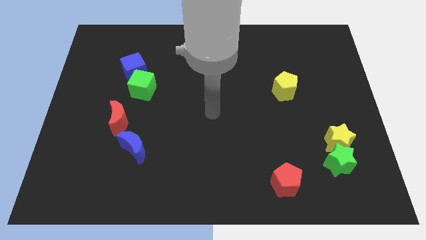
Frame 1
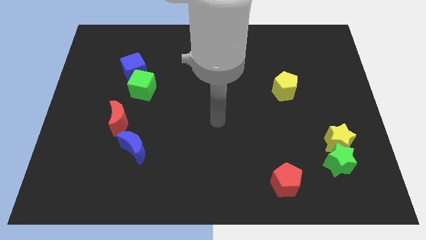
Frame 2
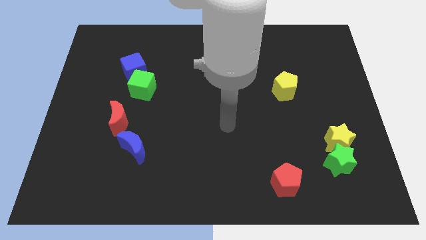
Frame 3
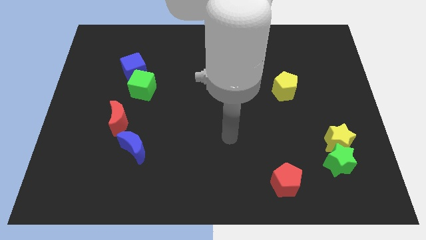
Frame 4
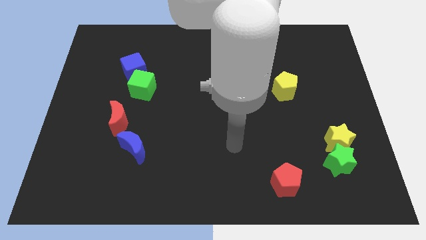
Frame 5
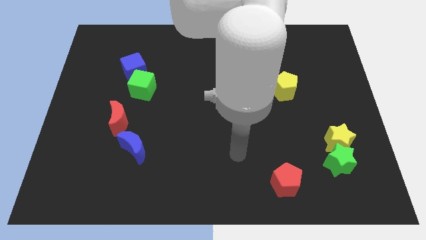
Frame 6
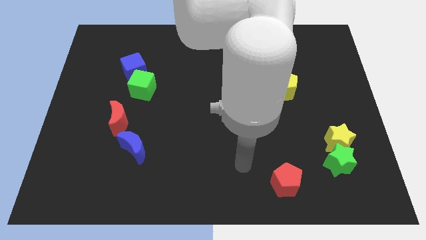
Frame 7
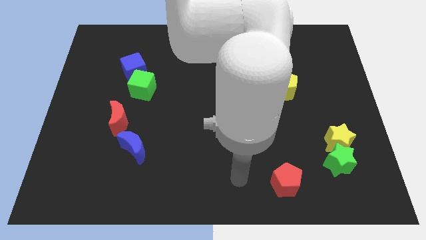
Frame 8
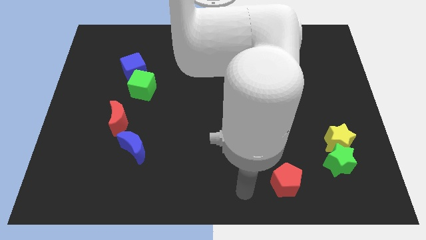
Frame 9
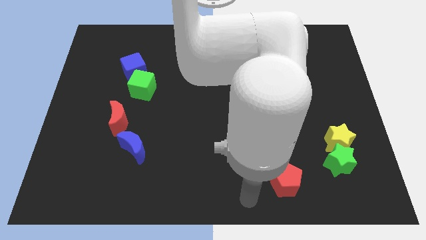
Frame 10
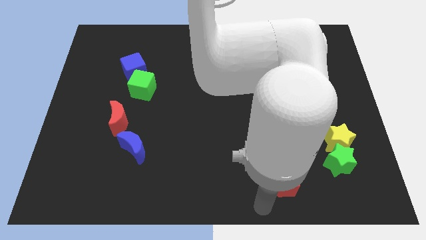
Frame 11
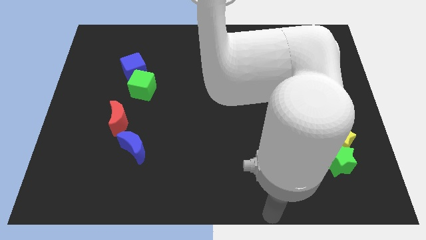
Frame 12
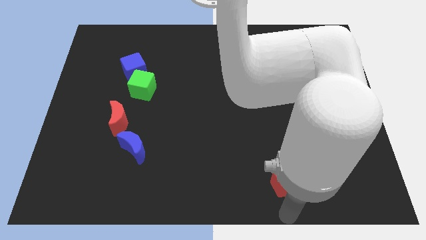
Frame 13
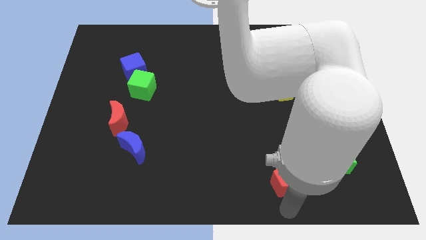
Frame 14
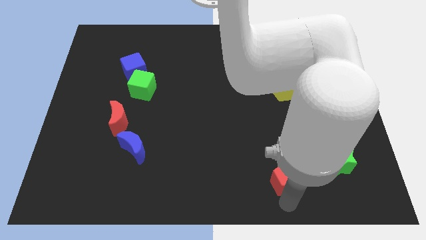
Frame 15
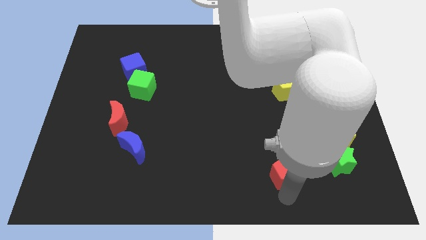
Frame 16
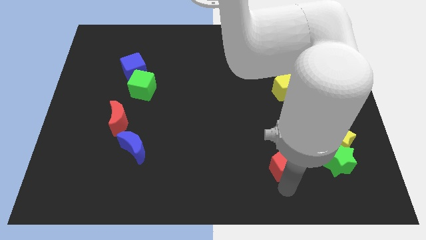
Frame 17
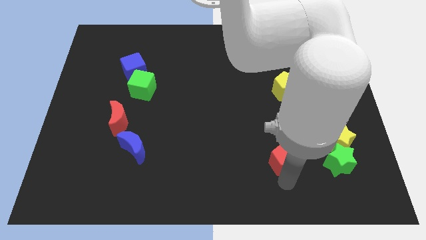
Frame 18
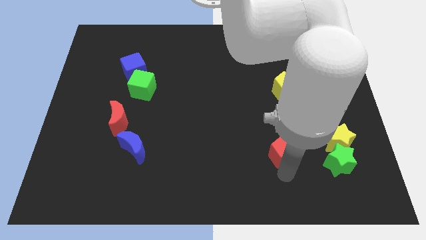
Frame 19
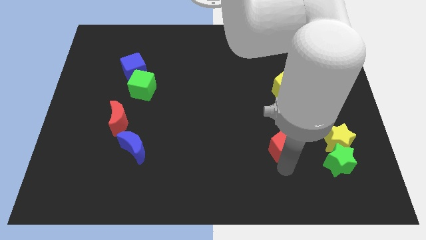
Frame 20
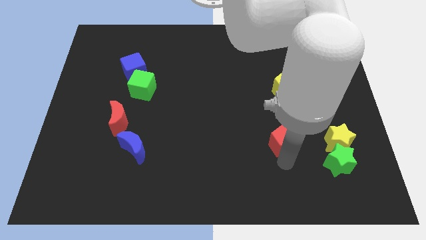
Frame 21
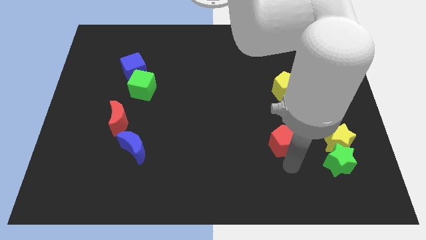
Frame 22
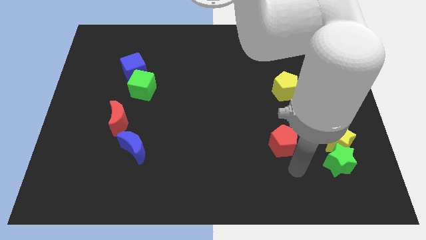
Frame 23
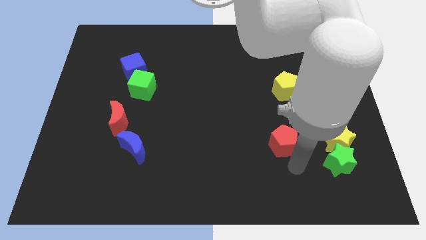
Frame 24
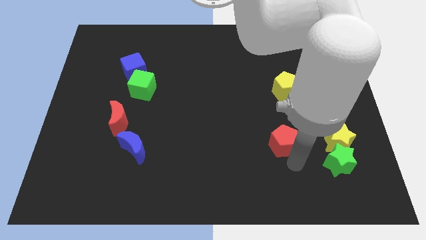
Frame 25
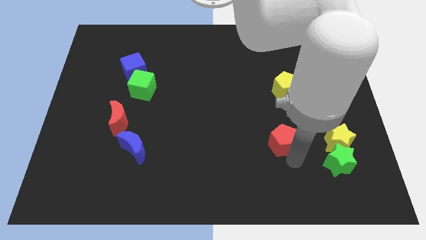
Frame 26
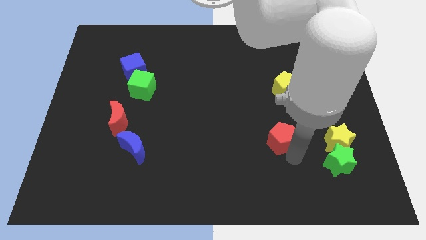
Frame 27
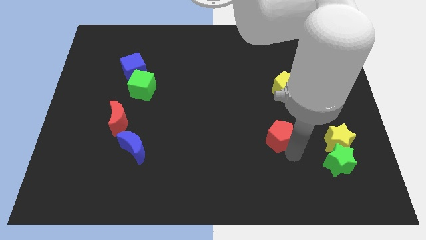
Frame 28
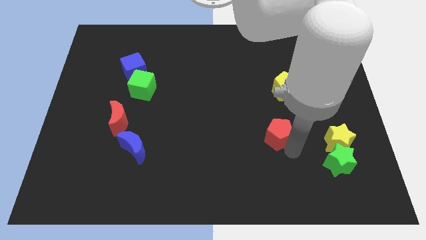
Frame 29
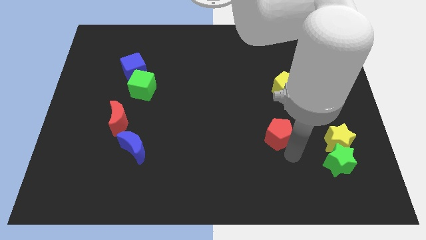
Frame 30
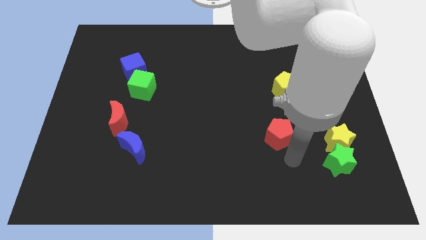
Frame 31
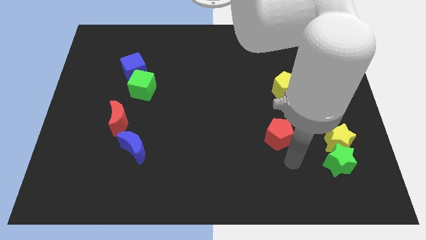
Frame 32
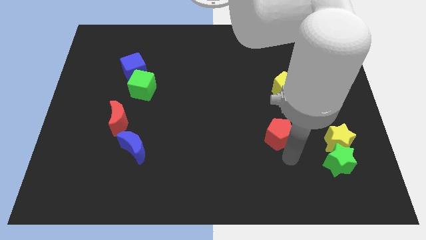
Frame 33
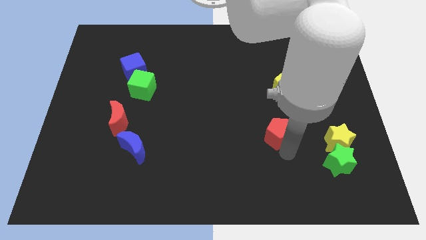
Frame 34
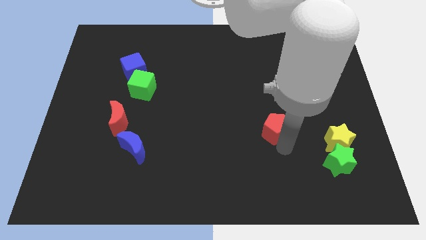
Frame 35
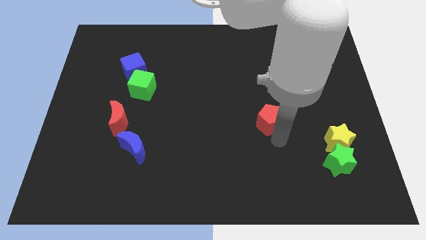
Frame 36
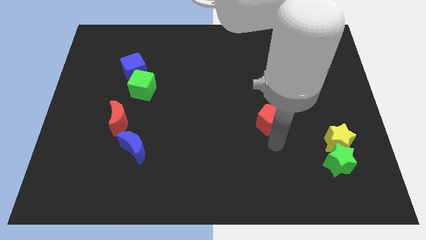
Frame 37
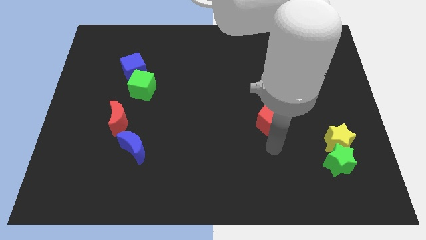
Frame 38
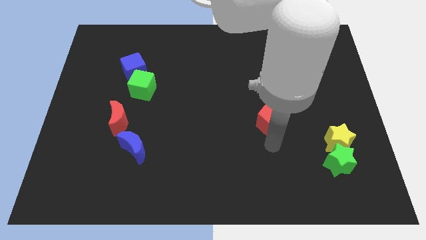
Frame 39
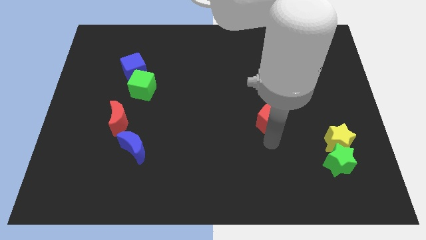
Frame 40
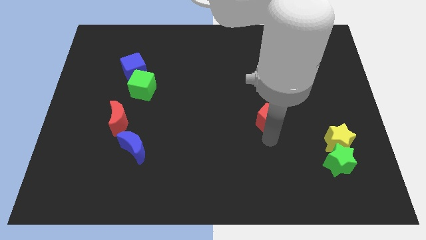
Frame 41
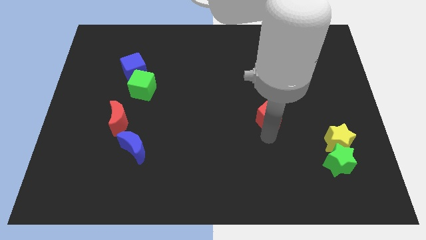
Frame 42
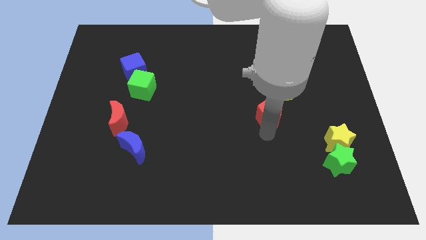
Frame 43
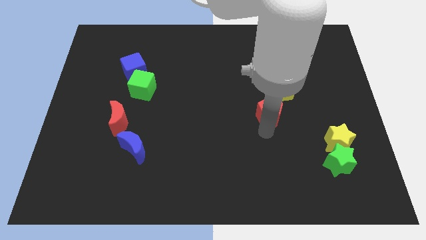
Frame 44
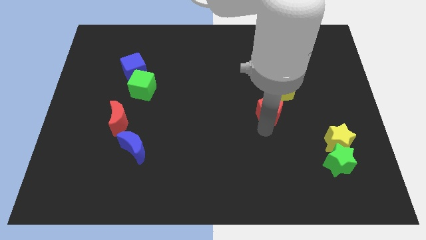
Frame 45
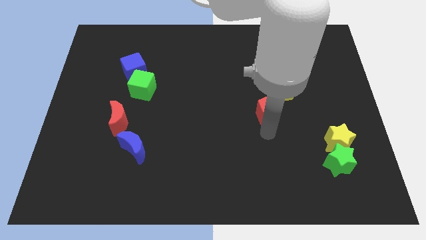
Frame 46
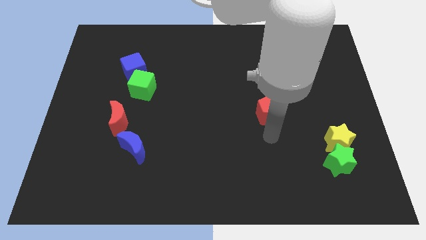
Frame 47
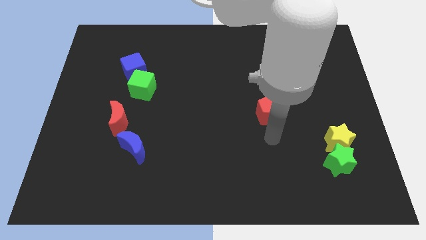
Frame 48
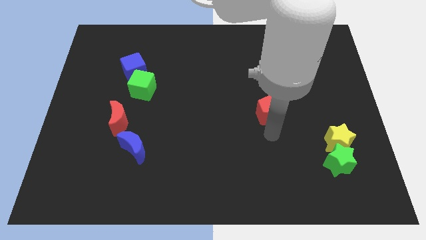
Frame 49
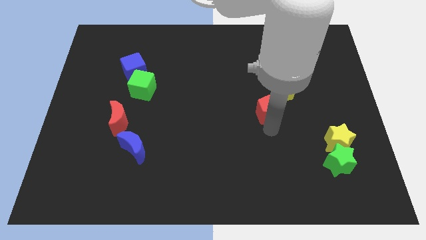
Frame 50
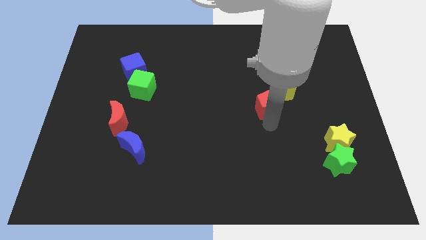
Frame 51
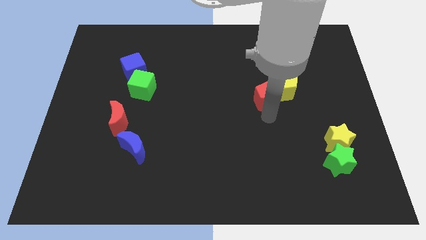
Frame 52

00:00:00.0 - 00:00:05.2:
slide the red pentagon upwards

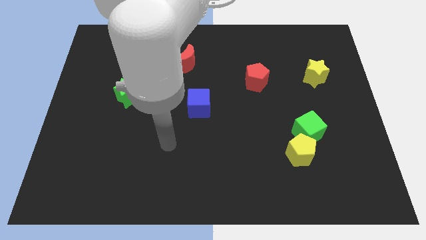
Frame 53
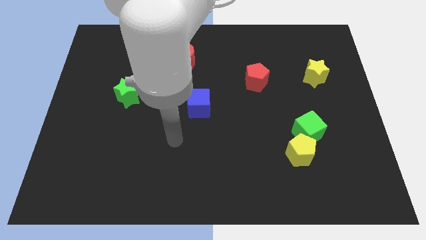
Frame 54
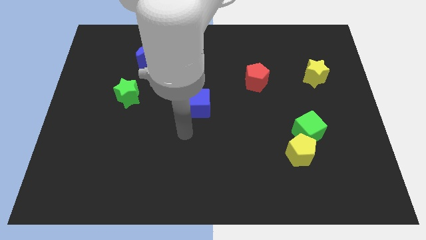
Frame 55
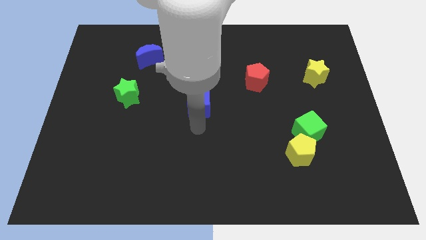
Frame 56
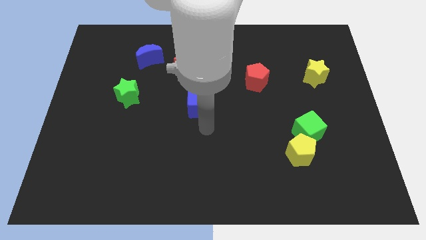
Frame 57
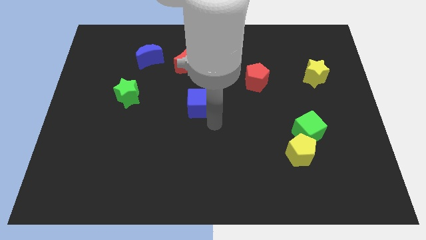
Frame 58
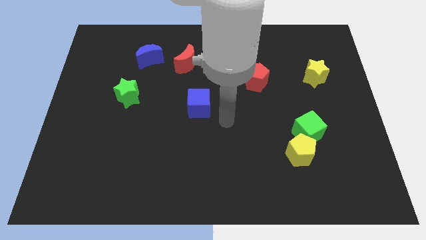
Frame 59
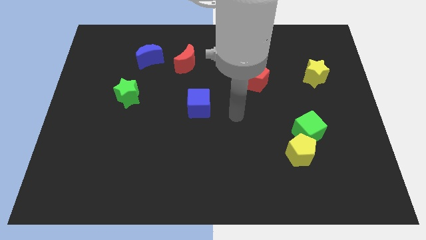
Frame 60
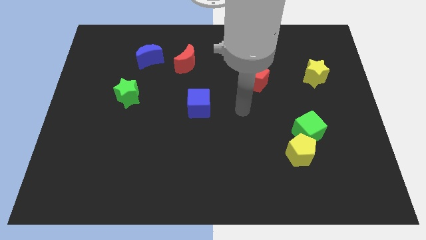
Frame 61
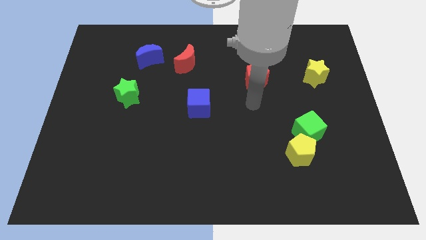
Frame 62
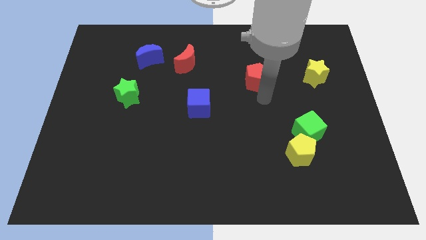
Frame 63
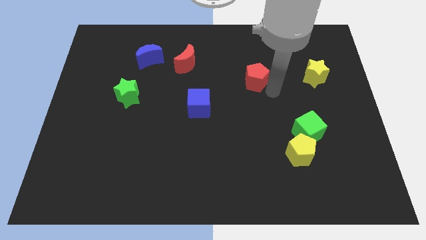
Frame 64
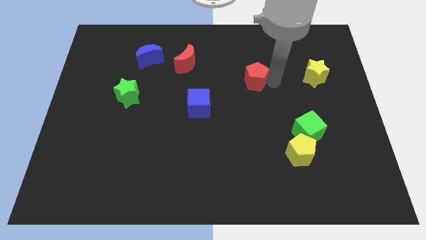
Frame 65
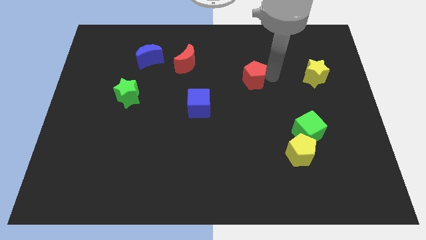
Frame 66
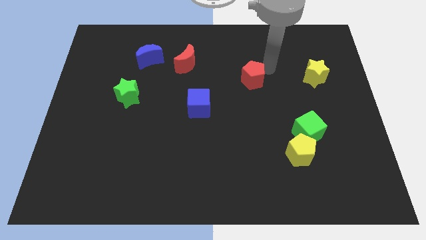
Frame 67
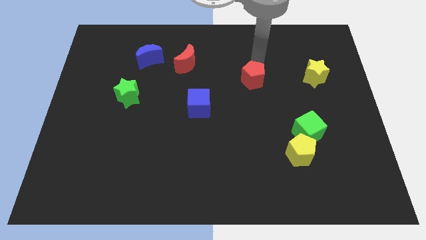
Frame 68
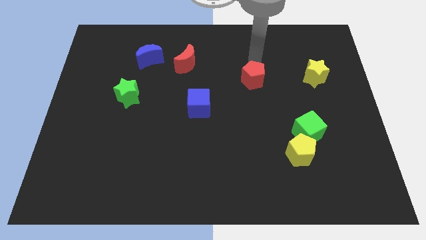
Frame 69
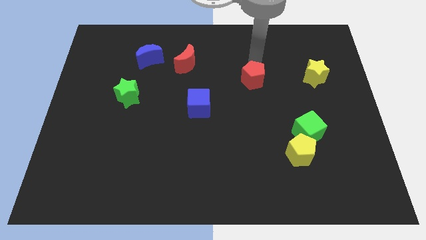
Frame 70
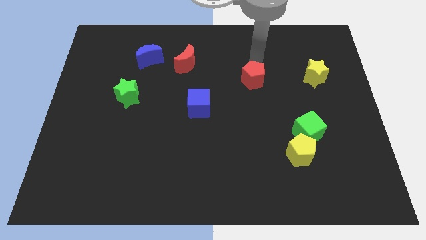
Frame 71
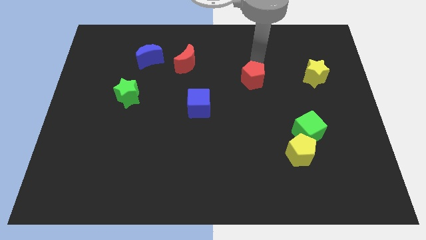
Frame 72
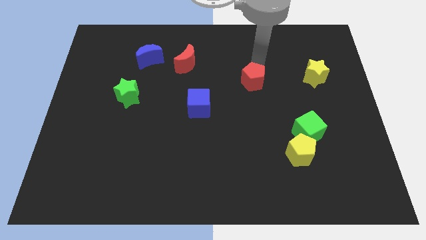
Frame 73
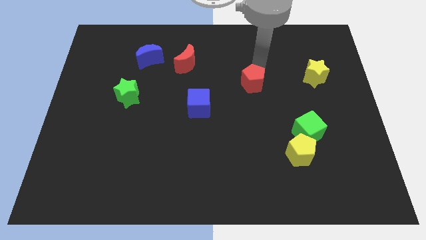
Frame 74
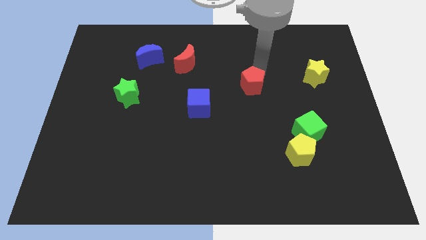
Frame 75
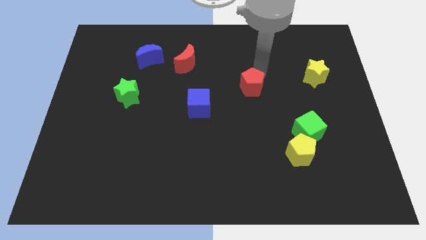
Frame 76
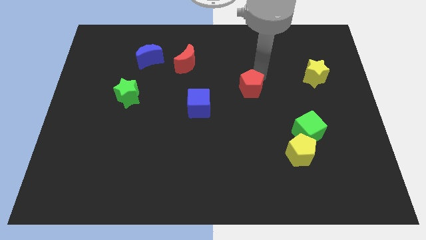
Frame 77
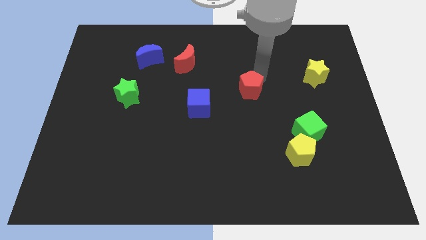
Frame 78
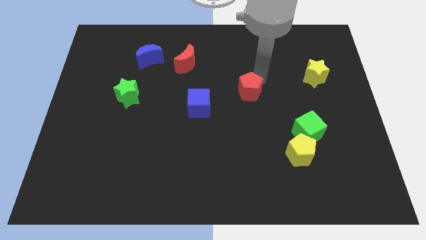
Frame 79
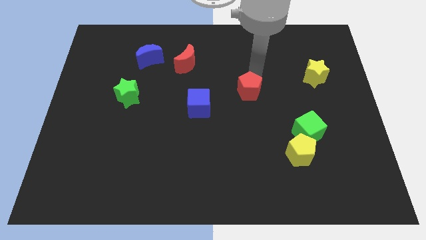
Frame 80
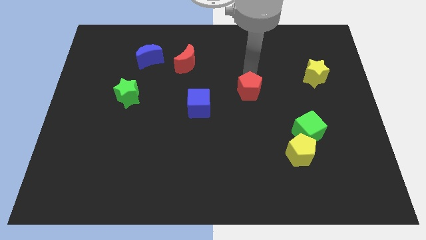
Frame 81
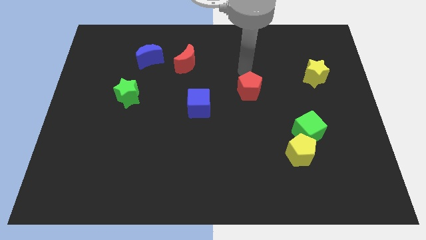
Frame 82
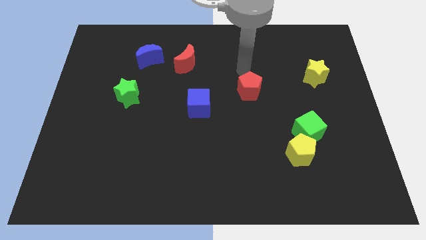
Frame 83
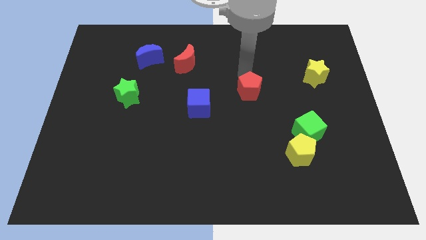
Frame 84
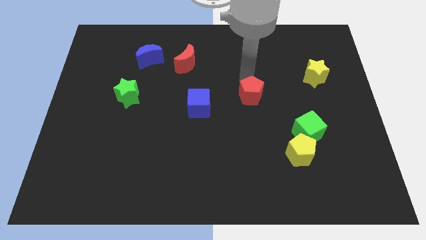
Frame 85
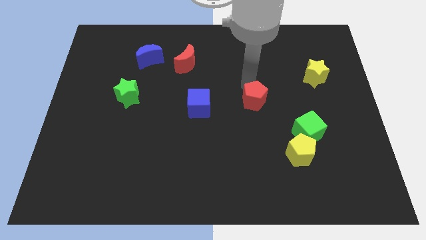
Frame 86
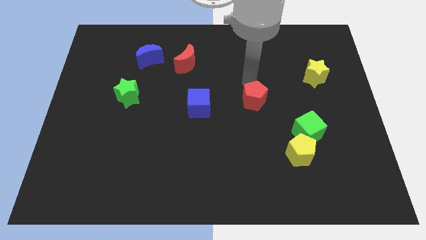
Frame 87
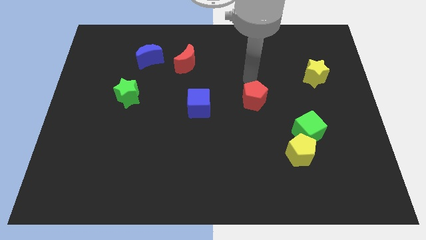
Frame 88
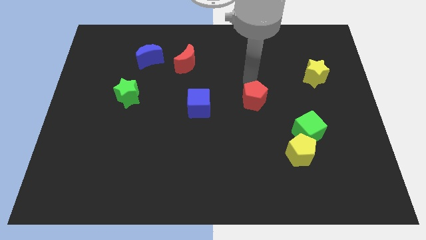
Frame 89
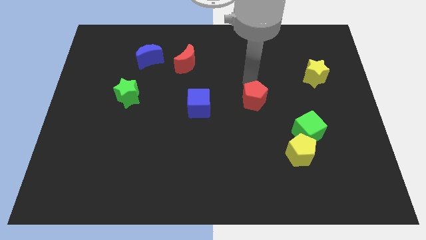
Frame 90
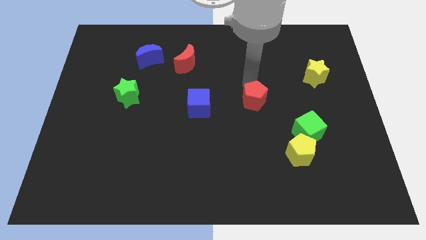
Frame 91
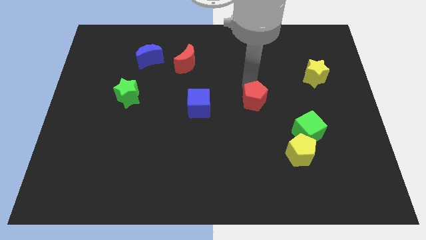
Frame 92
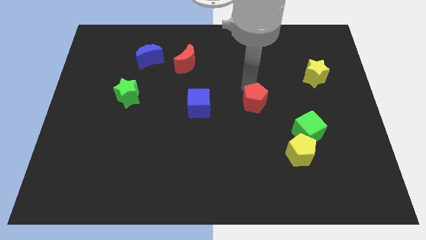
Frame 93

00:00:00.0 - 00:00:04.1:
slightly slide the red pentagon downwards
